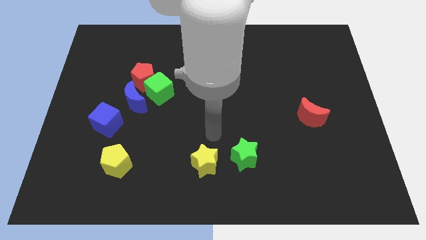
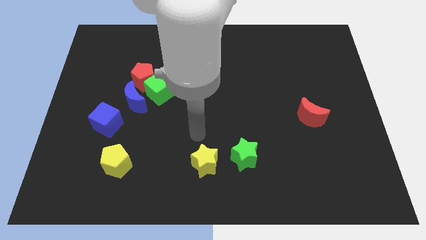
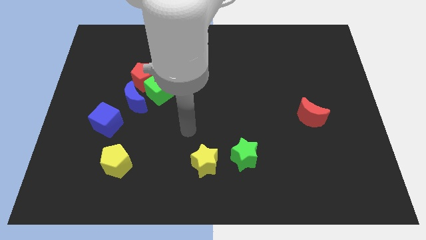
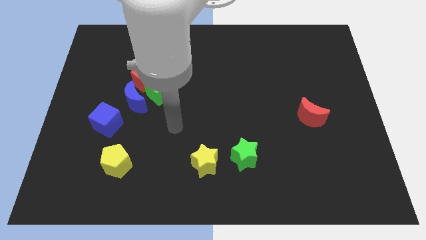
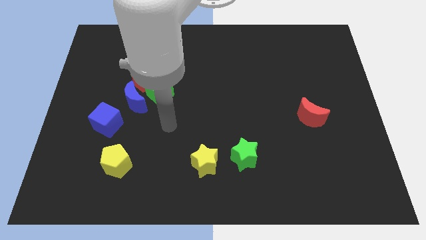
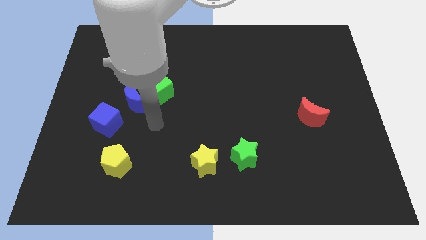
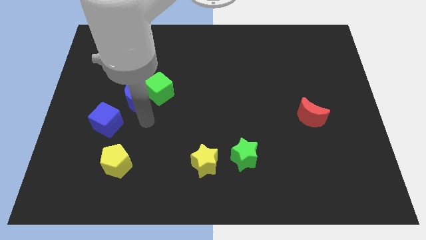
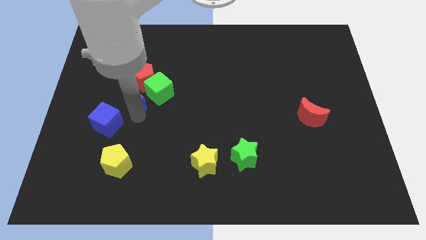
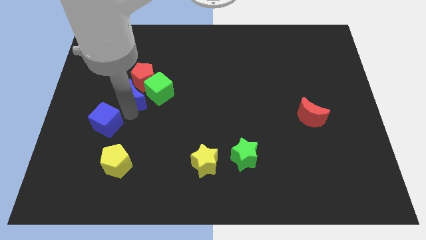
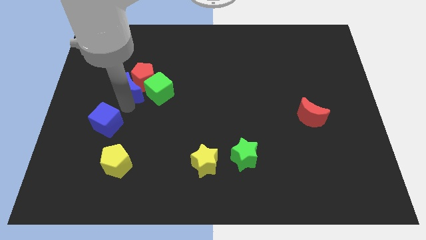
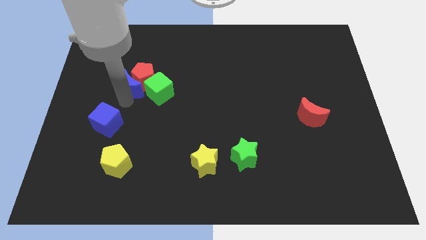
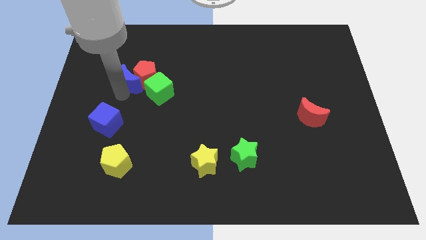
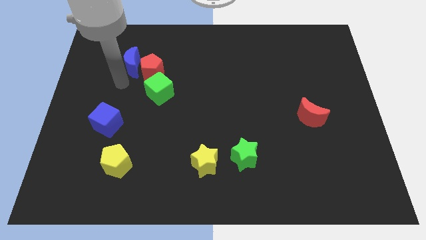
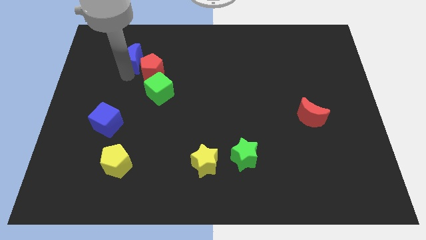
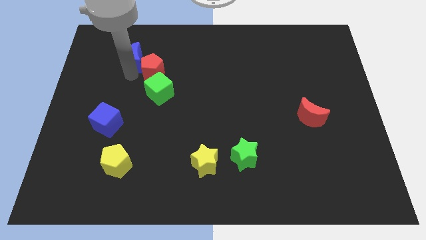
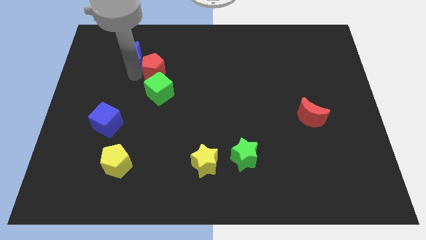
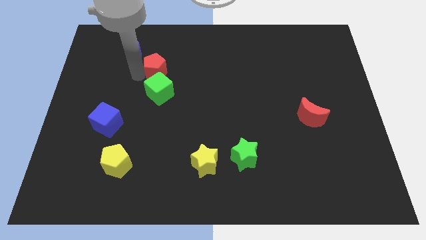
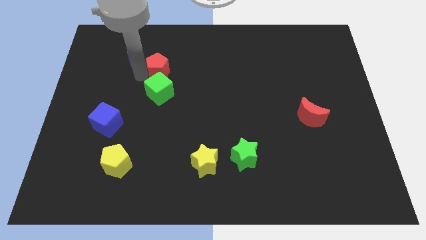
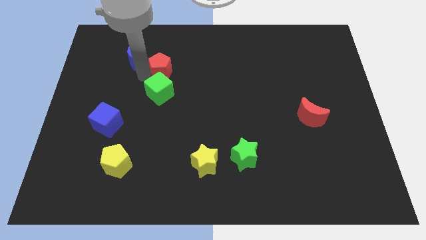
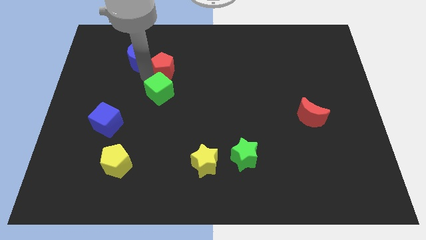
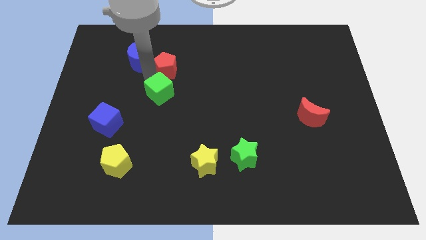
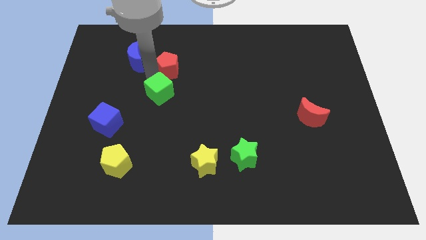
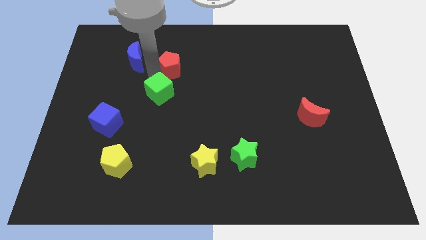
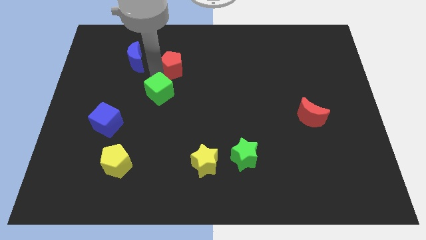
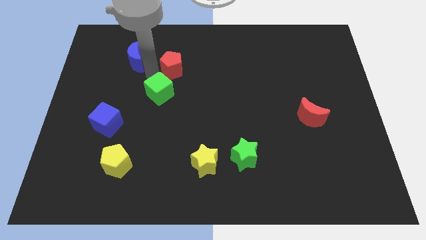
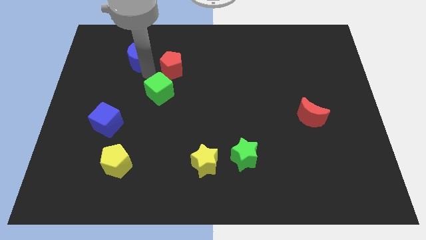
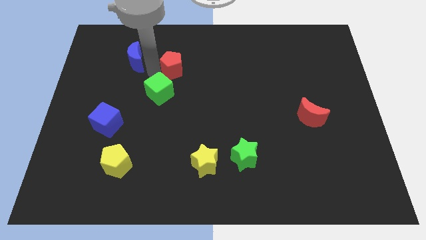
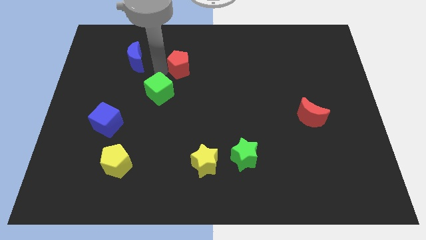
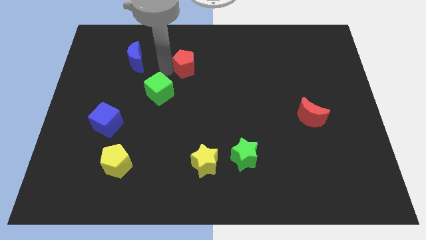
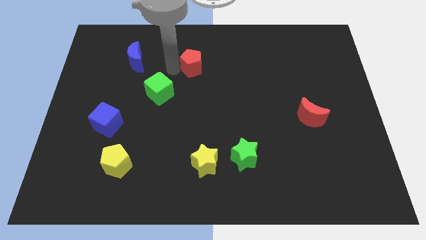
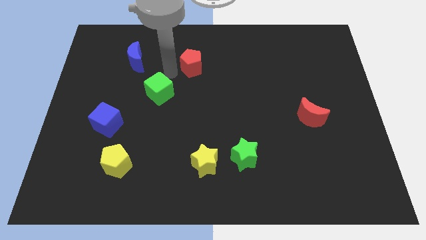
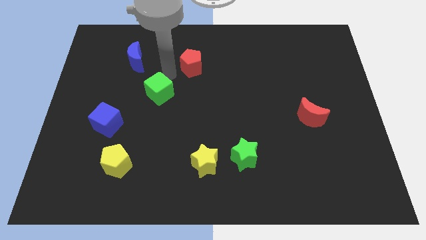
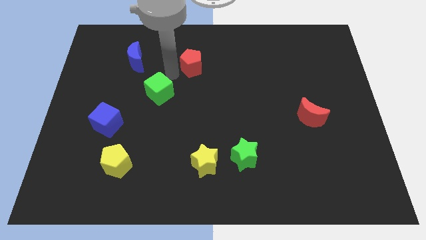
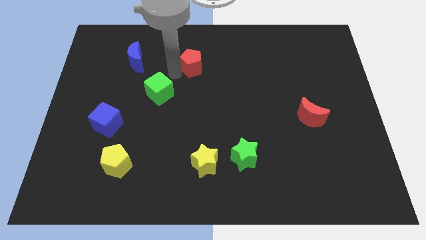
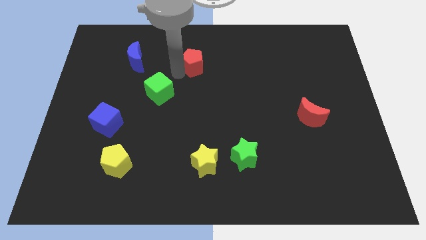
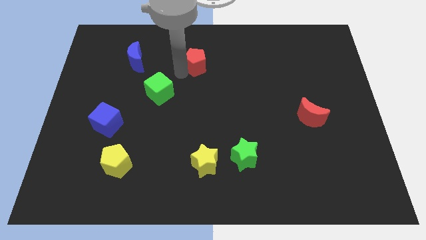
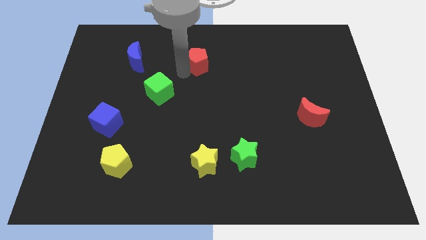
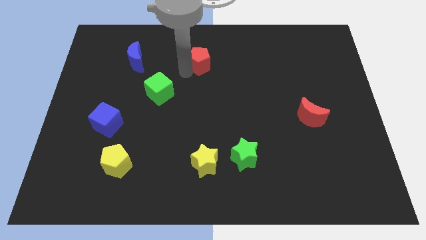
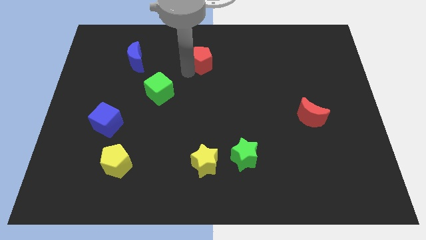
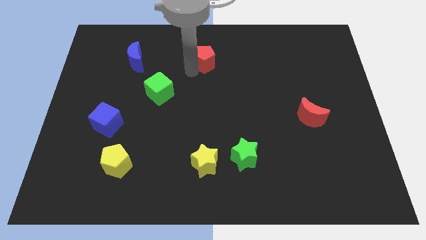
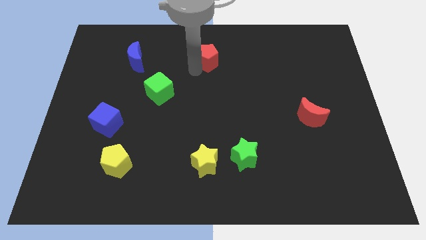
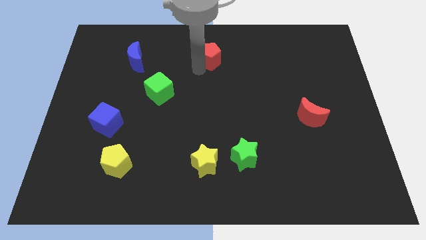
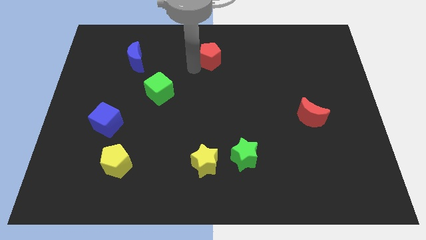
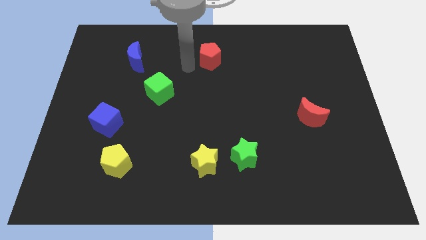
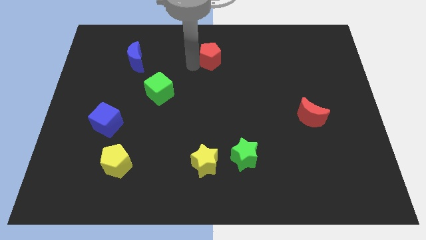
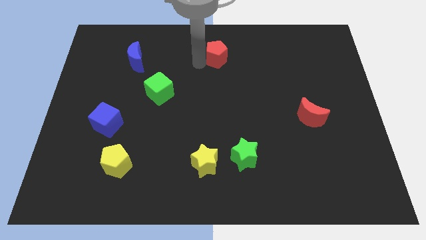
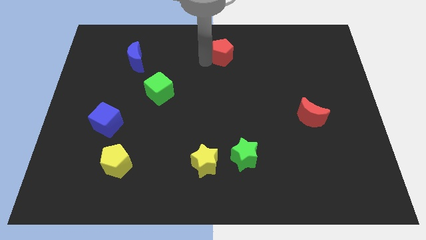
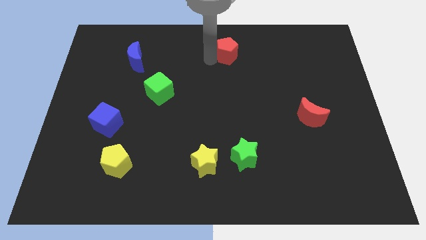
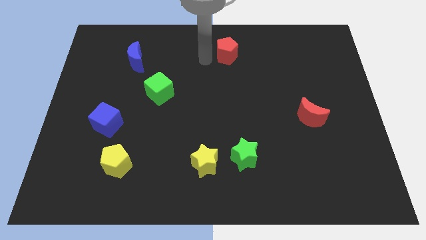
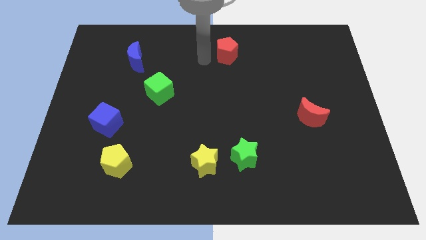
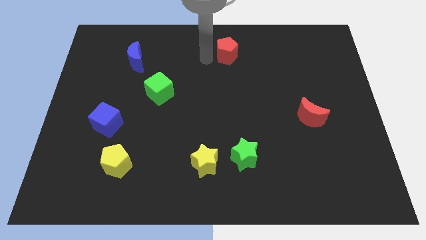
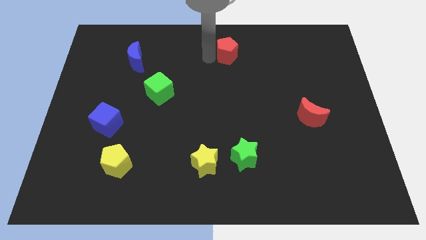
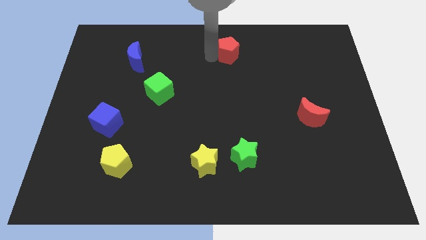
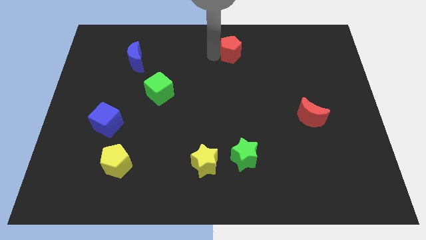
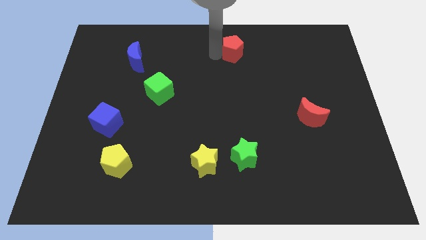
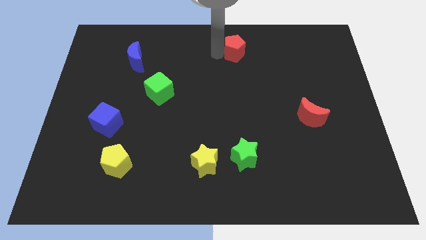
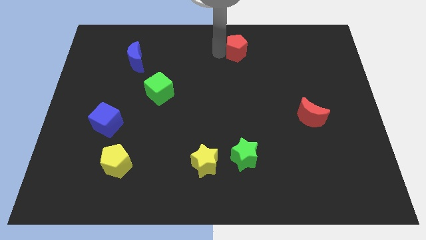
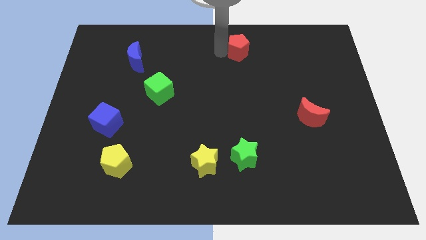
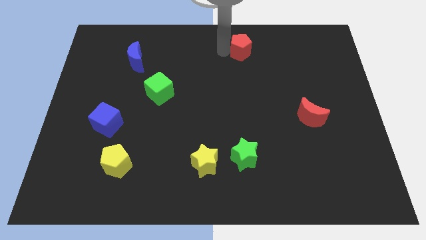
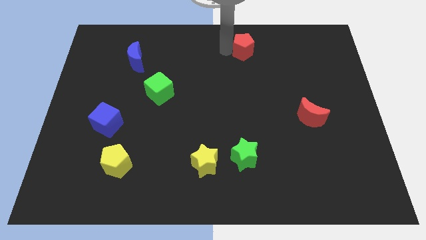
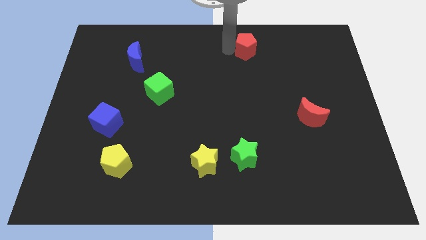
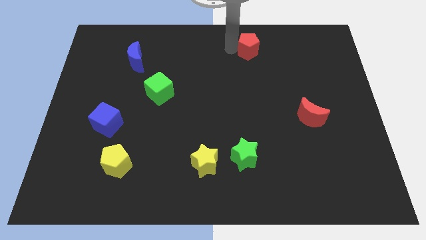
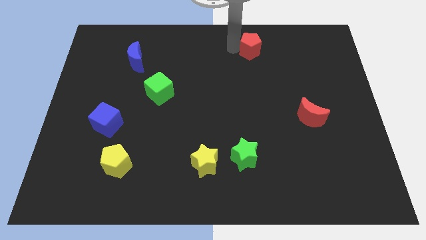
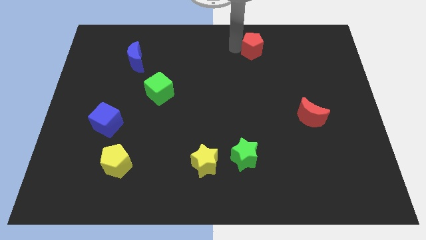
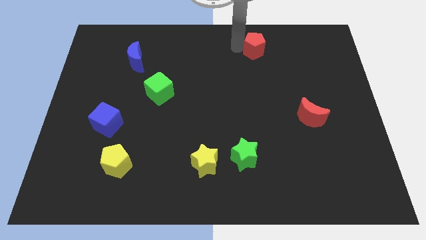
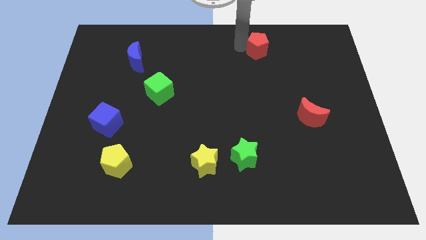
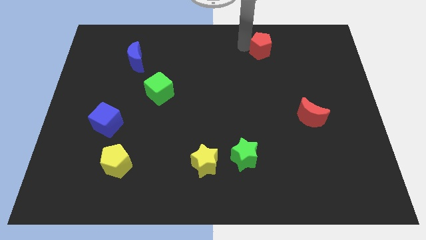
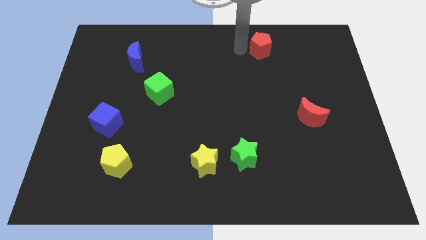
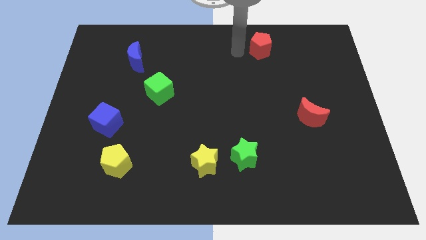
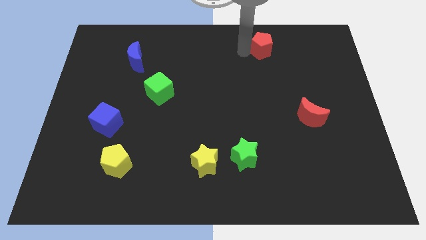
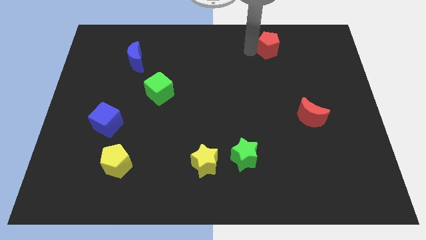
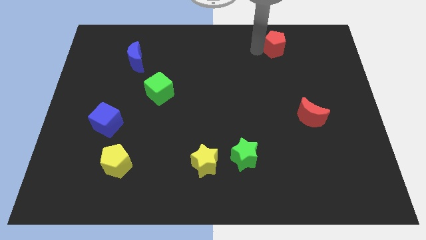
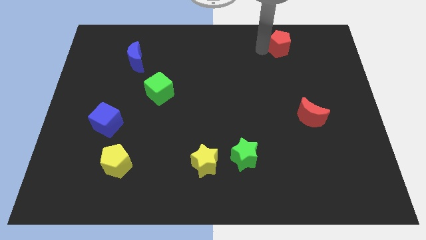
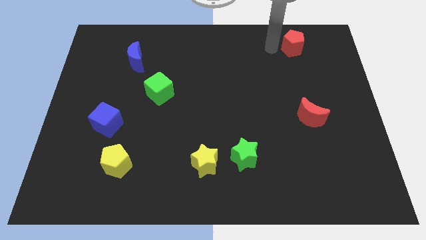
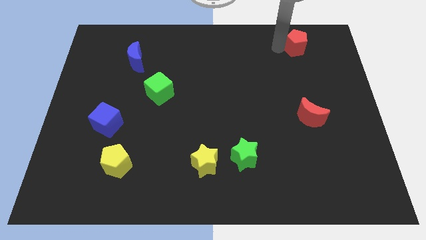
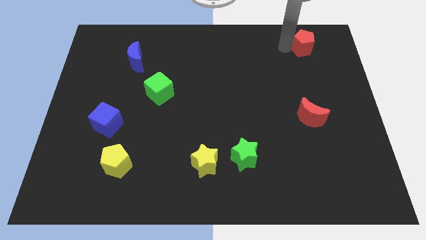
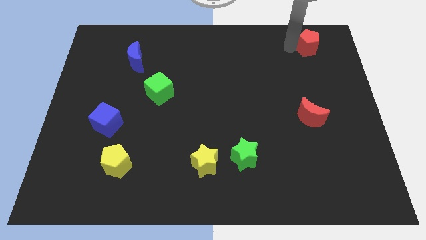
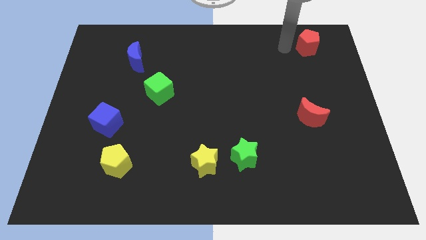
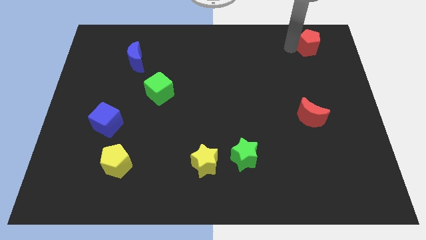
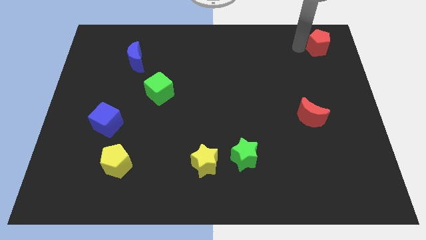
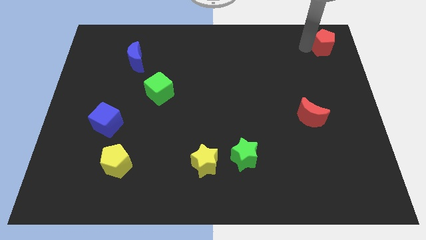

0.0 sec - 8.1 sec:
move the red pentagon to the upper right corner
